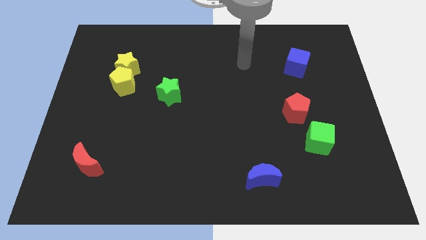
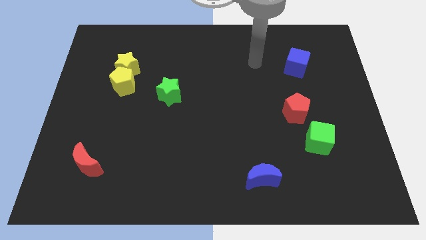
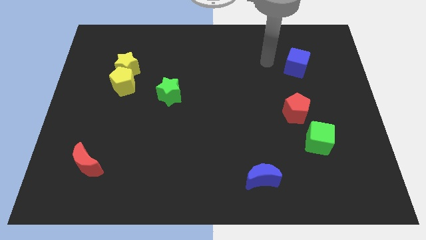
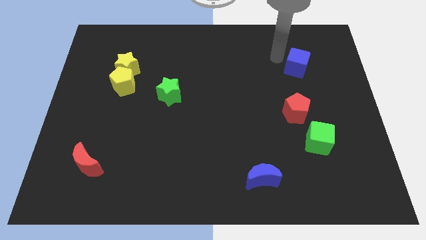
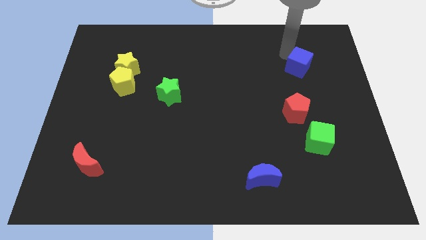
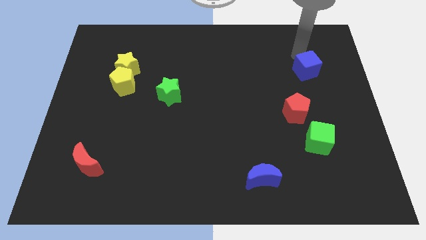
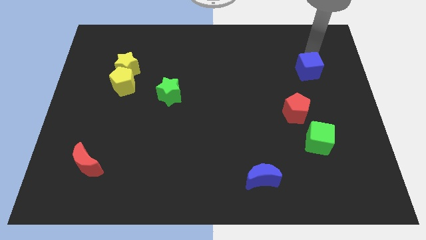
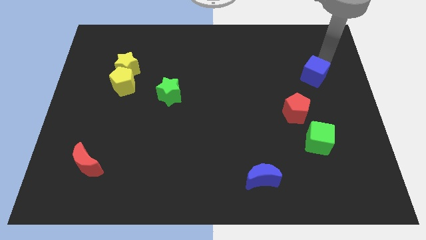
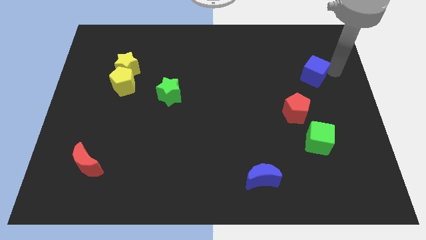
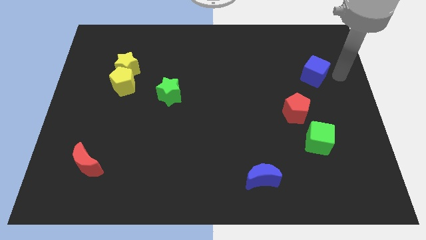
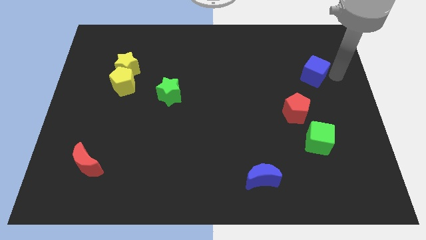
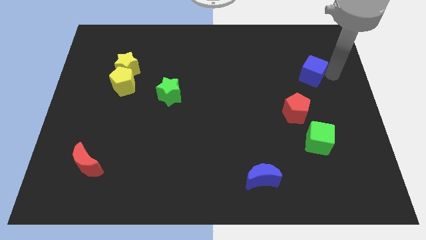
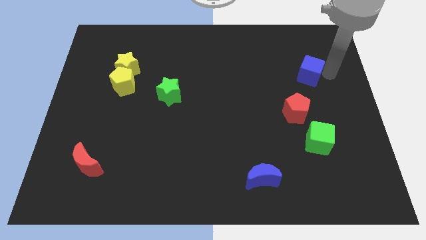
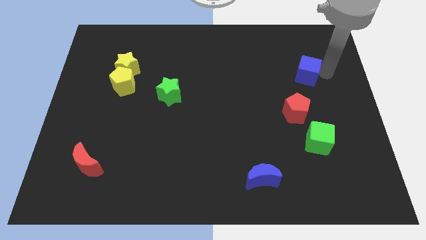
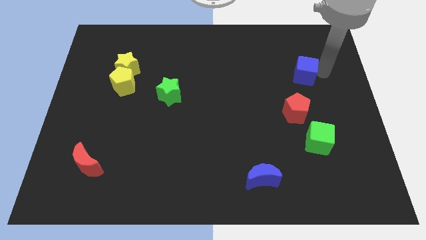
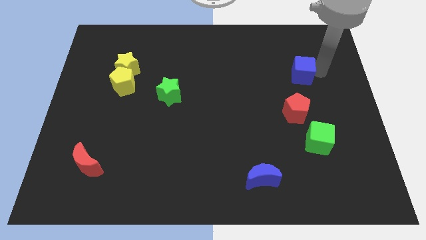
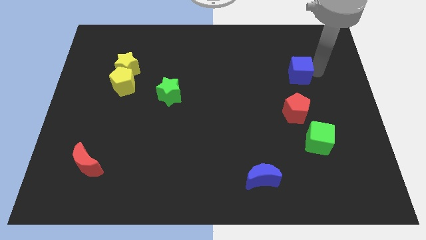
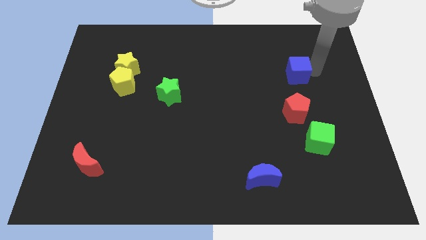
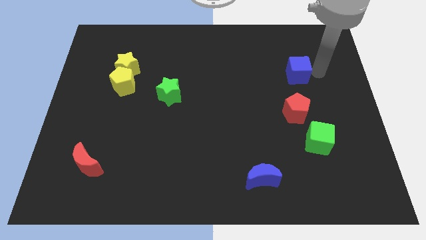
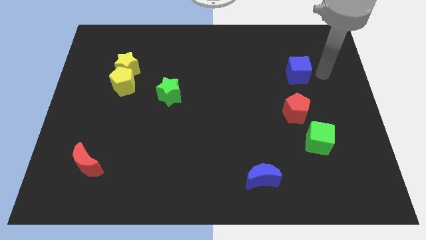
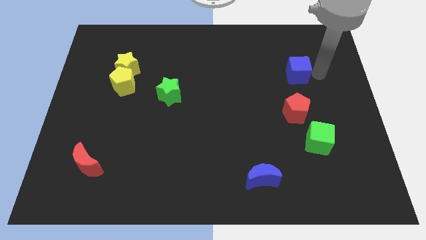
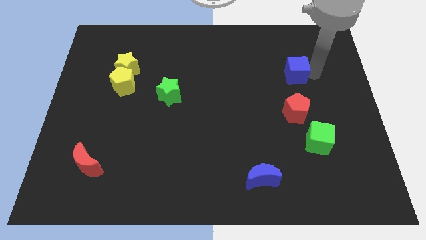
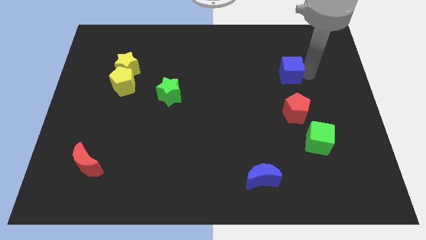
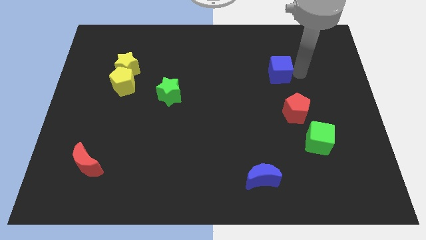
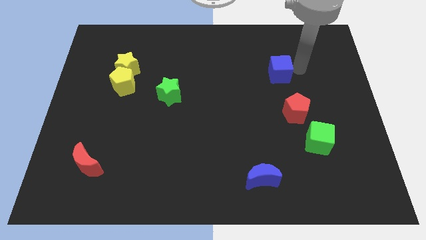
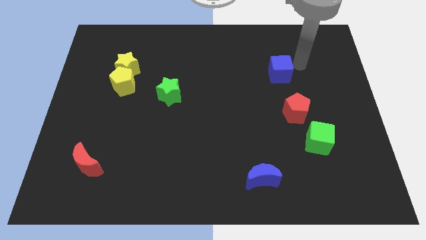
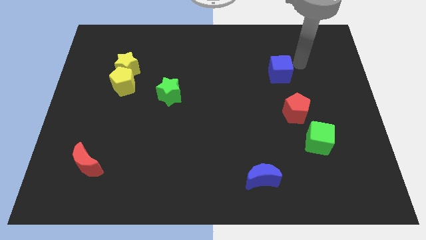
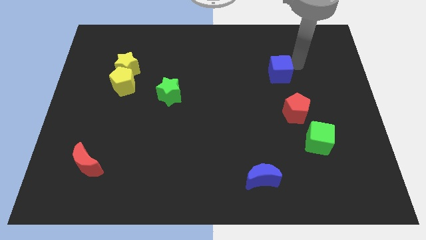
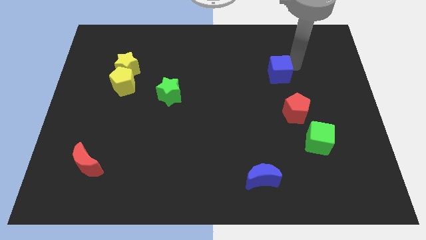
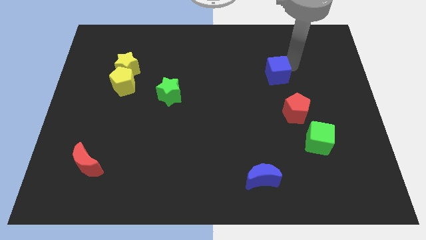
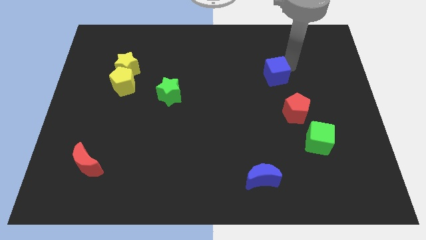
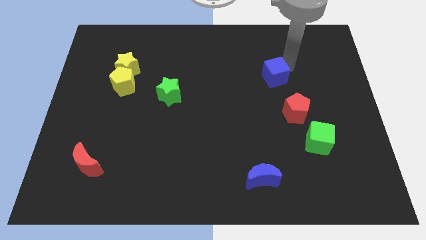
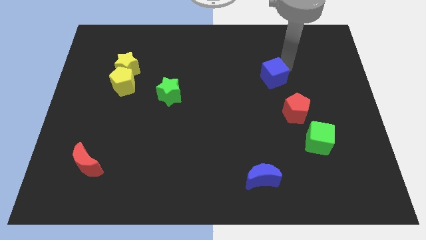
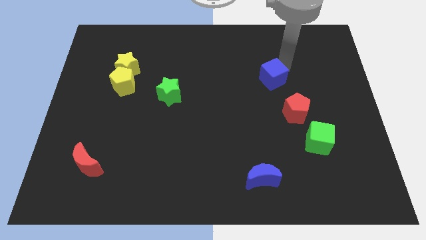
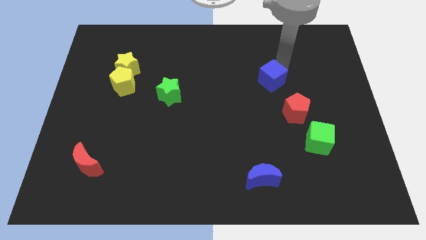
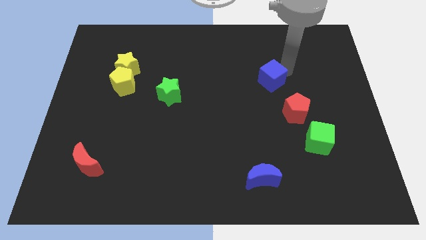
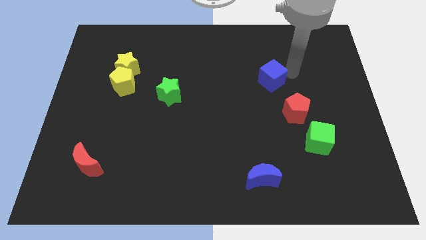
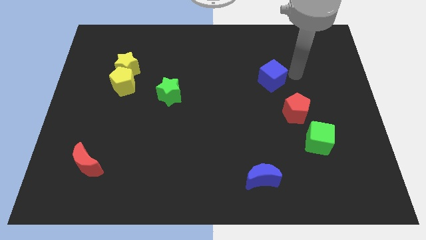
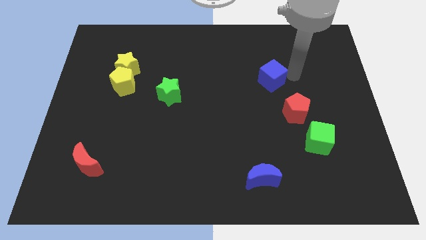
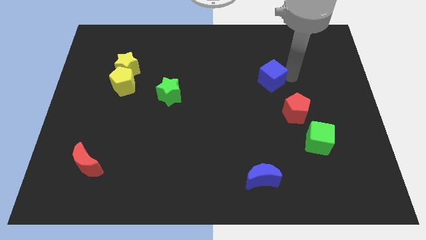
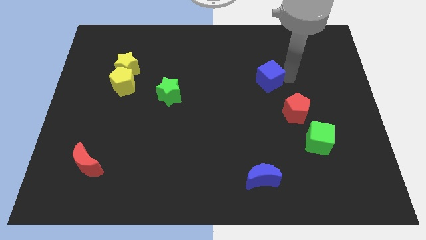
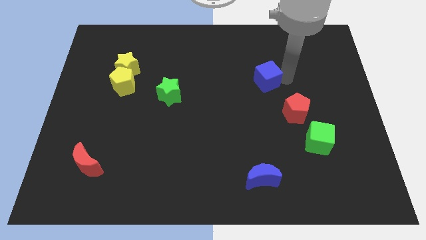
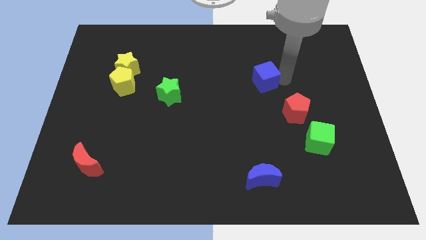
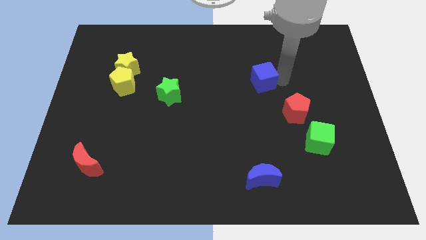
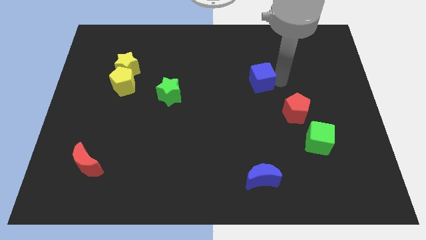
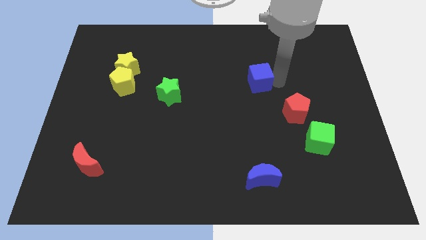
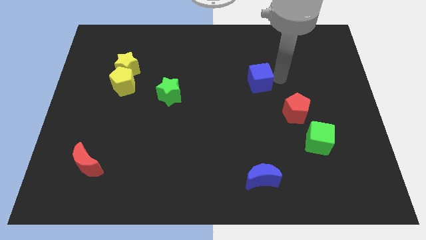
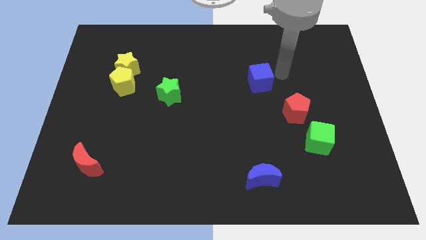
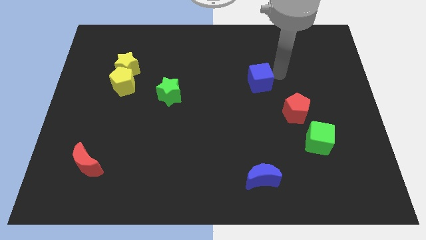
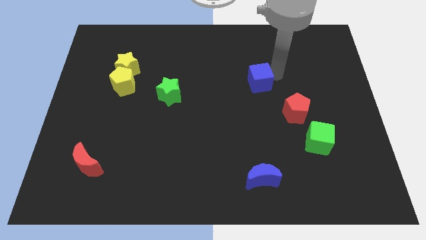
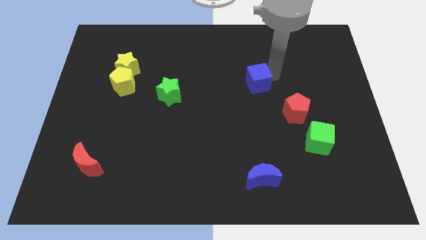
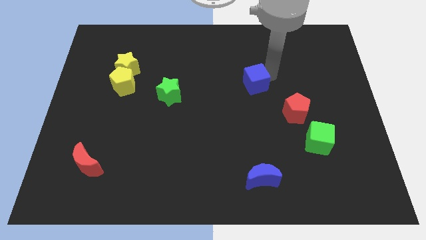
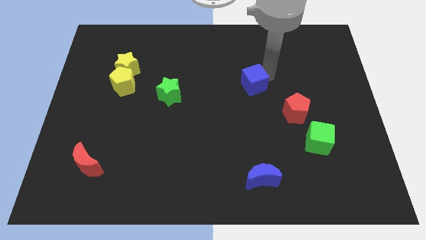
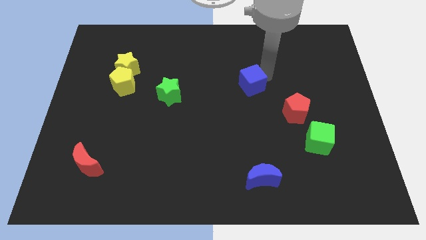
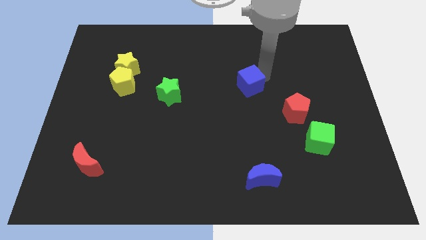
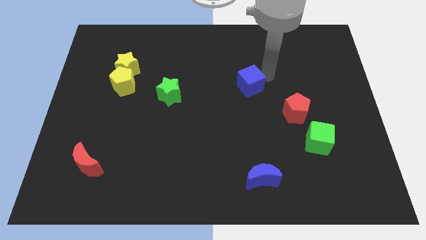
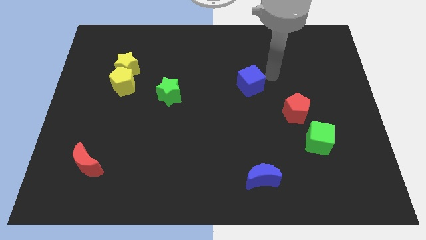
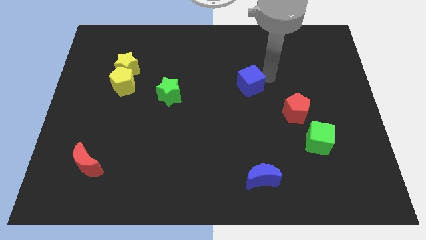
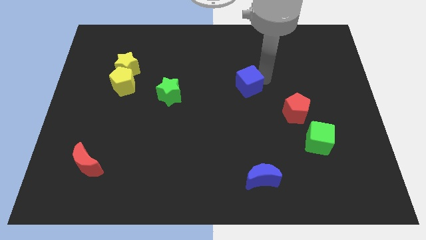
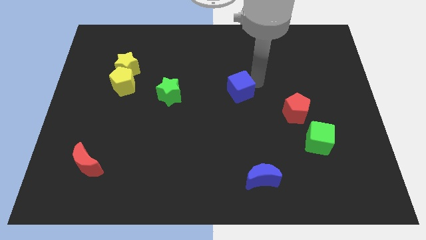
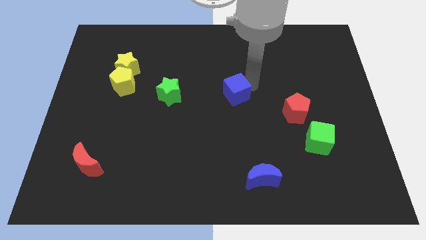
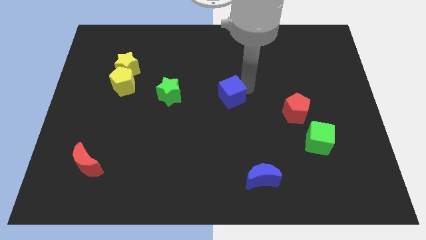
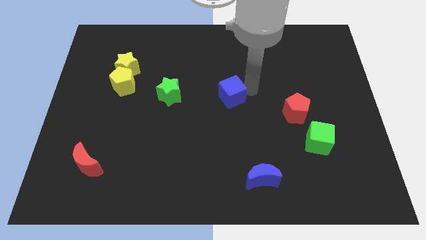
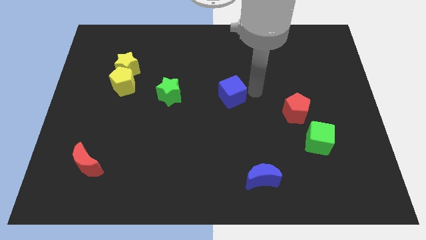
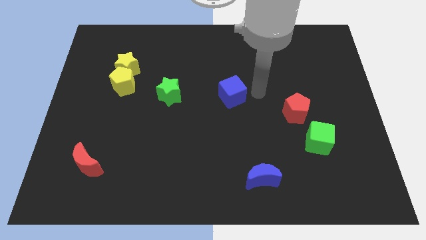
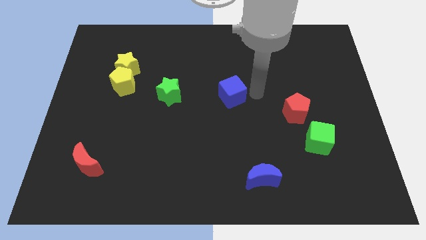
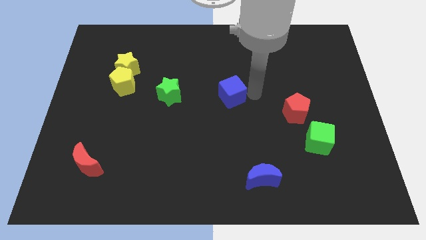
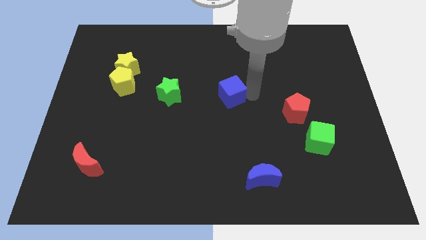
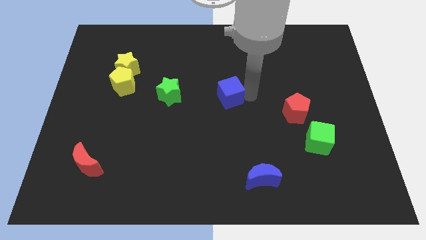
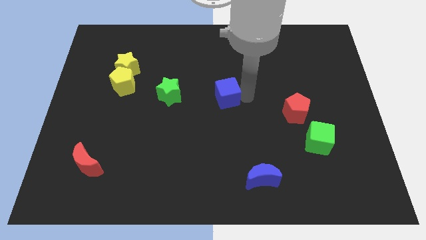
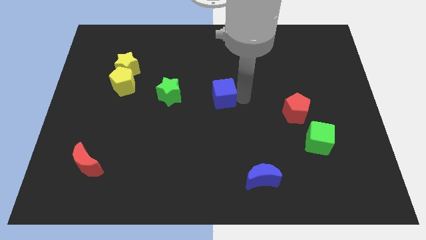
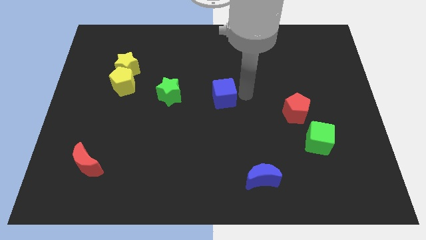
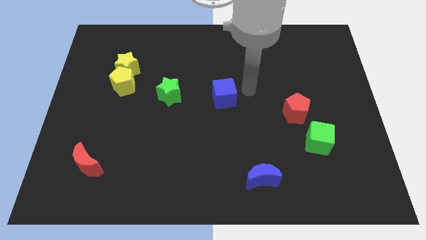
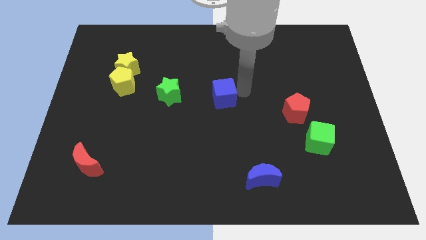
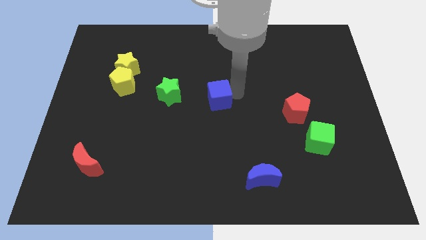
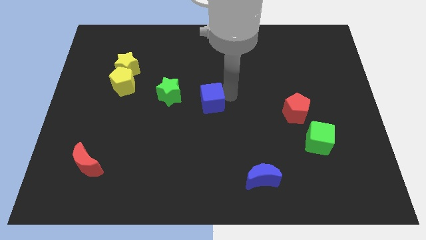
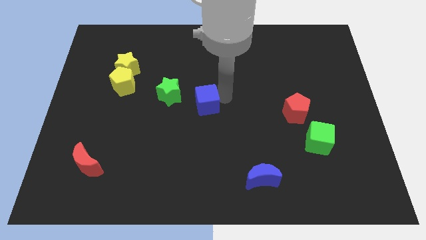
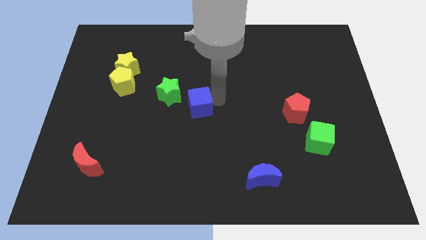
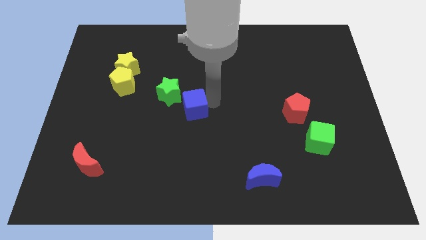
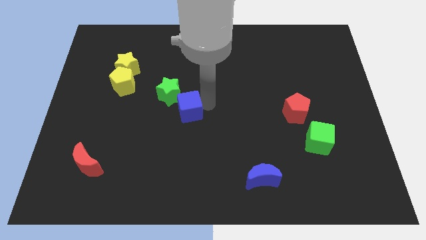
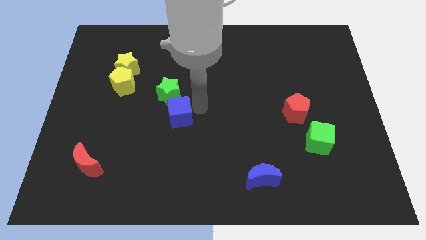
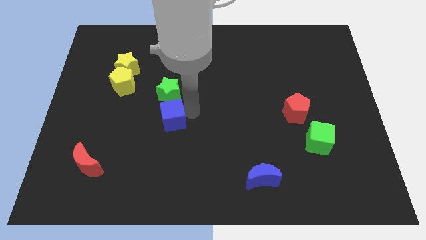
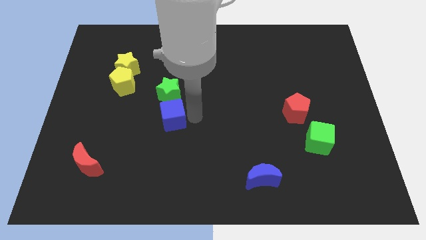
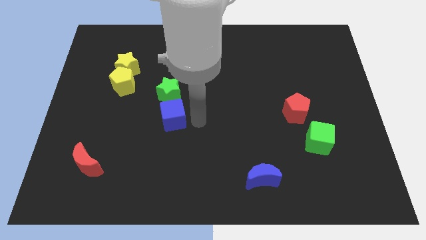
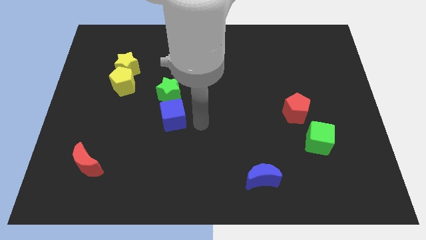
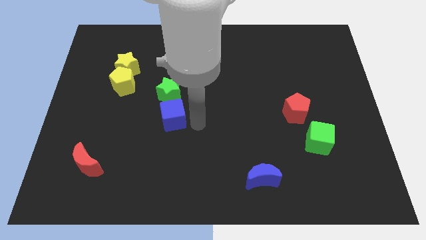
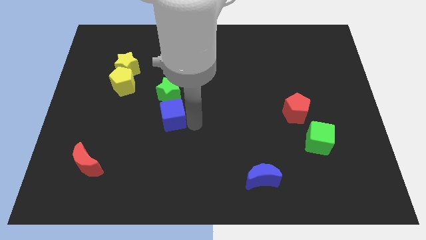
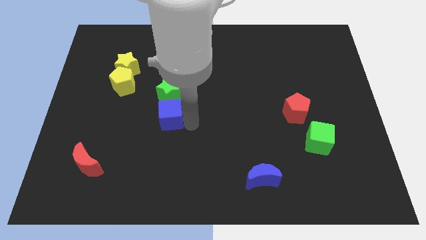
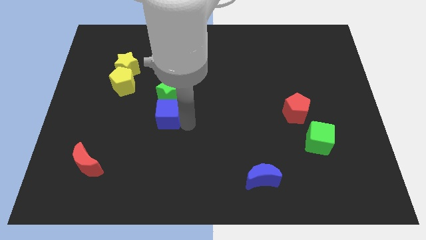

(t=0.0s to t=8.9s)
put the blue cube to the bottom left of the green star
